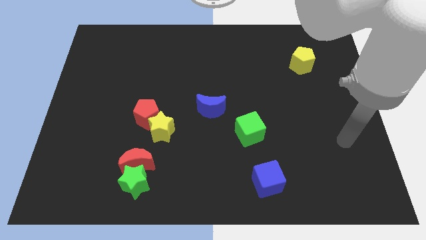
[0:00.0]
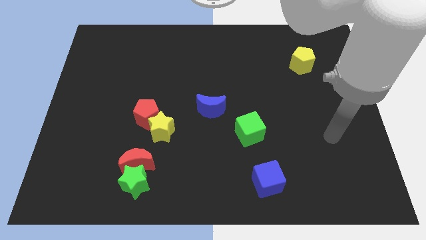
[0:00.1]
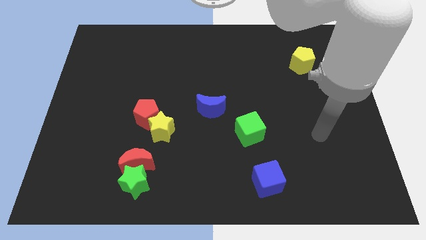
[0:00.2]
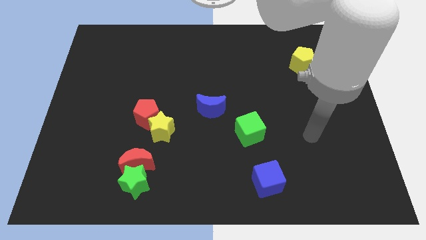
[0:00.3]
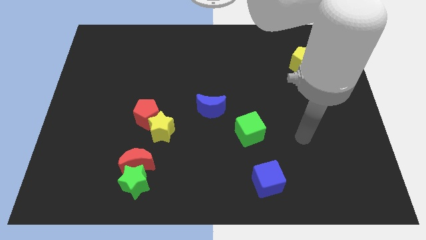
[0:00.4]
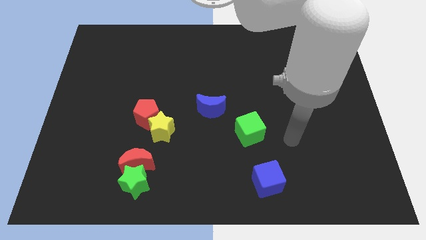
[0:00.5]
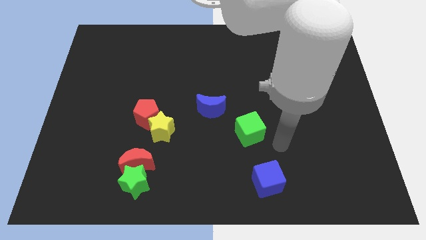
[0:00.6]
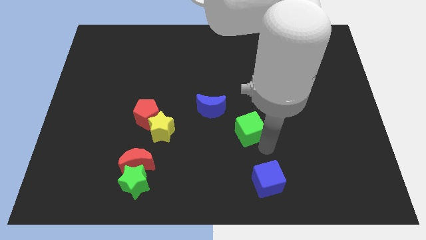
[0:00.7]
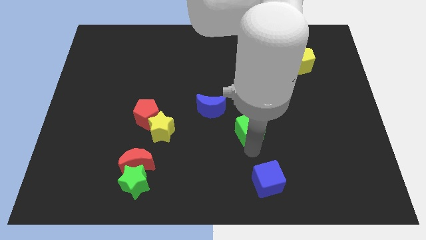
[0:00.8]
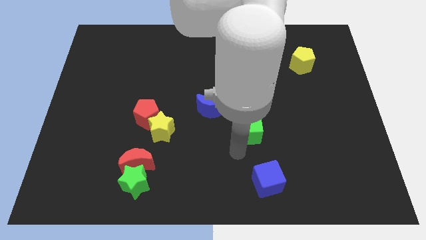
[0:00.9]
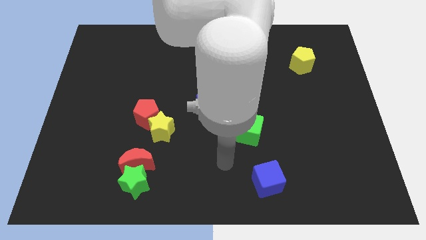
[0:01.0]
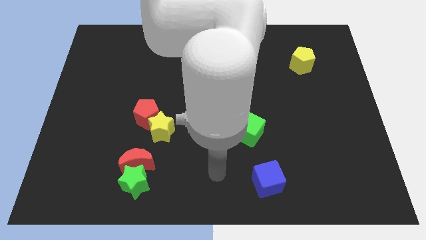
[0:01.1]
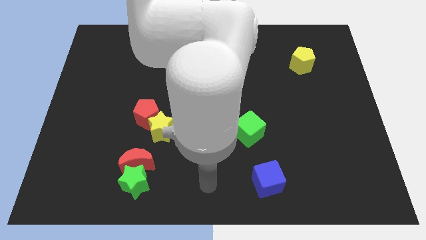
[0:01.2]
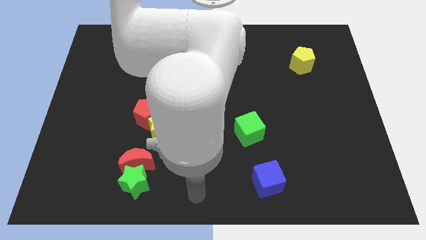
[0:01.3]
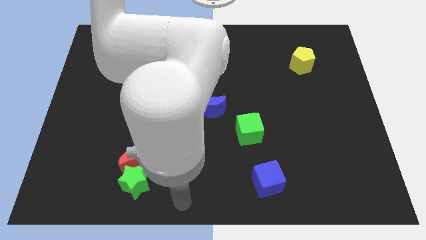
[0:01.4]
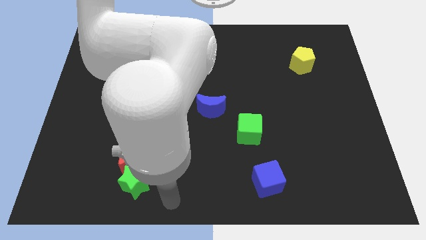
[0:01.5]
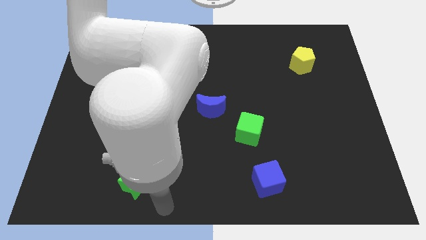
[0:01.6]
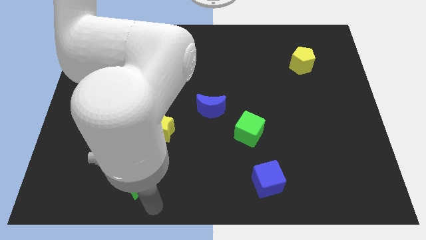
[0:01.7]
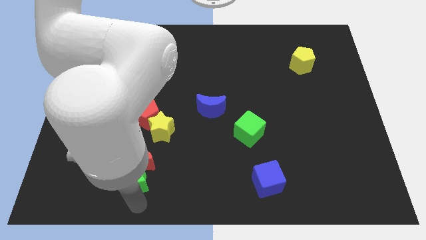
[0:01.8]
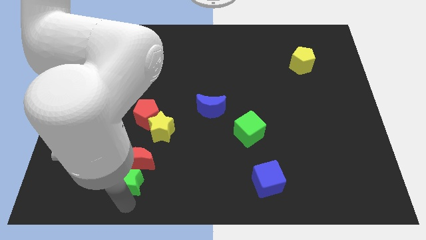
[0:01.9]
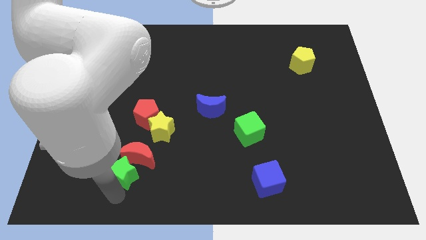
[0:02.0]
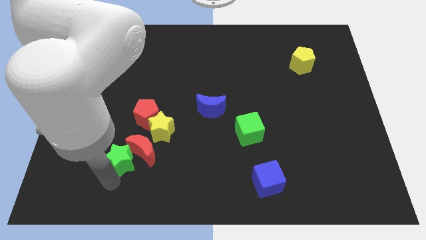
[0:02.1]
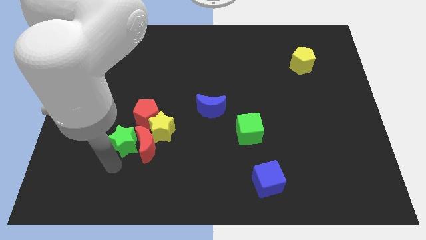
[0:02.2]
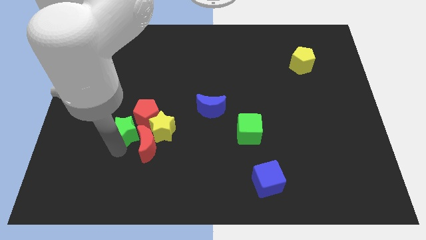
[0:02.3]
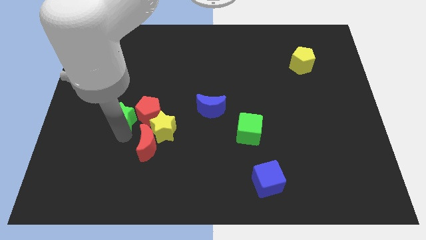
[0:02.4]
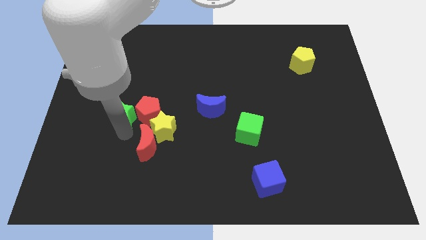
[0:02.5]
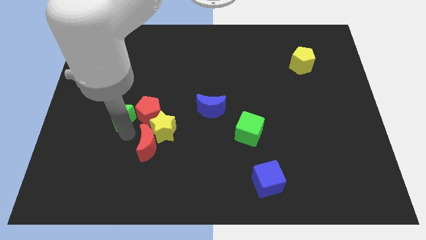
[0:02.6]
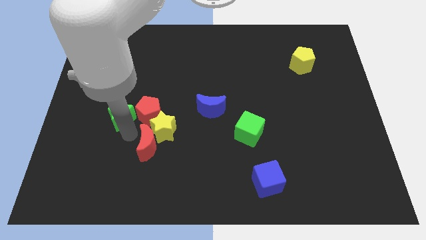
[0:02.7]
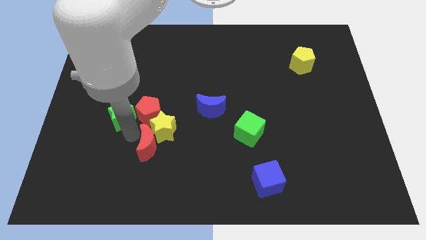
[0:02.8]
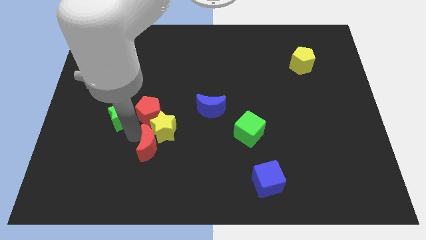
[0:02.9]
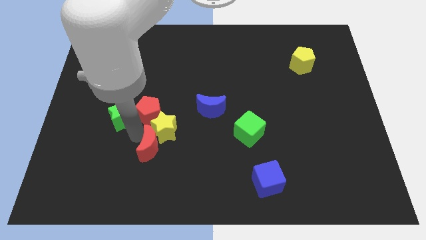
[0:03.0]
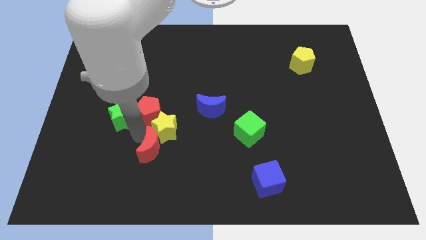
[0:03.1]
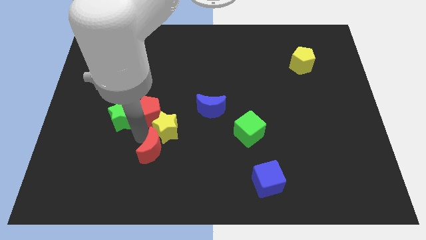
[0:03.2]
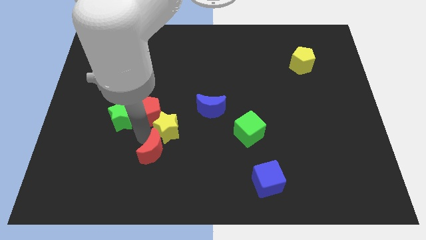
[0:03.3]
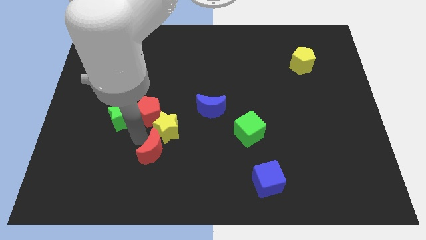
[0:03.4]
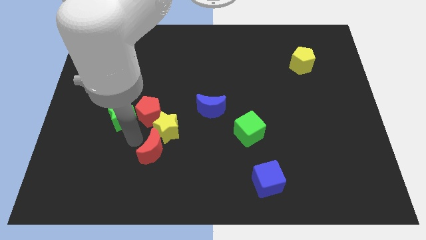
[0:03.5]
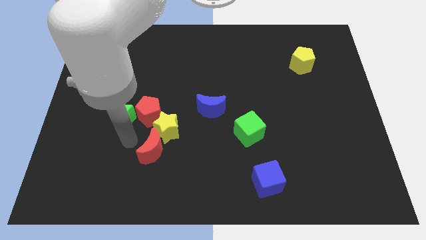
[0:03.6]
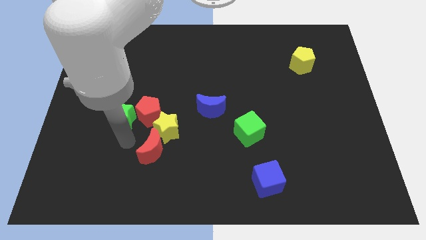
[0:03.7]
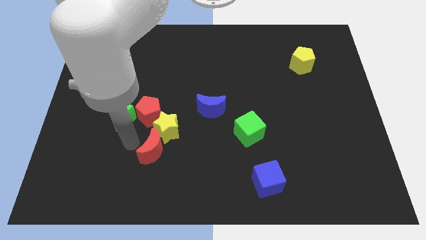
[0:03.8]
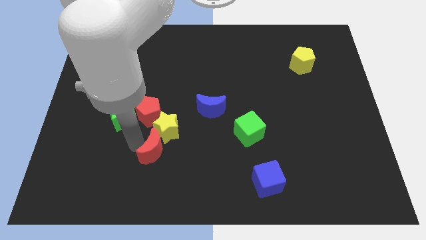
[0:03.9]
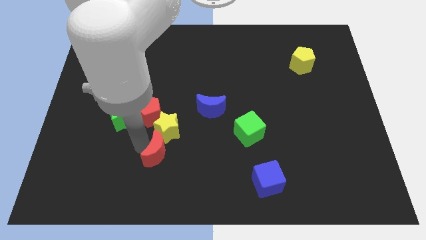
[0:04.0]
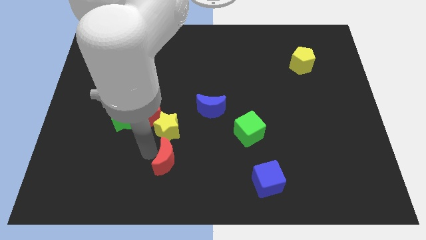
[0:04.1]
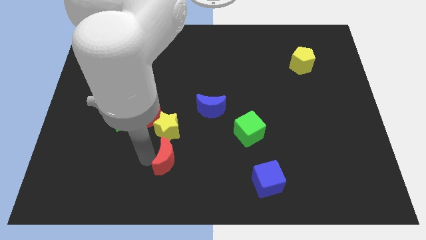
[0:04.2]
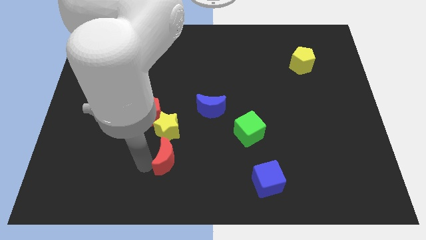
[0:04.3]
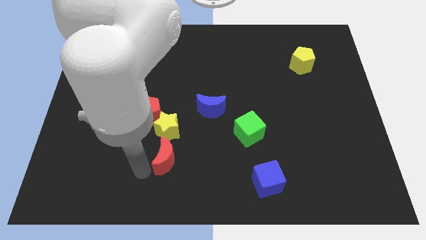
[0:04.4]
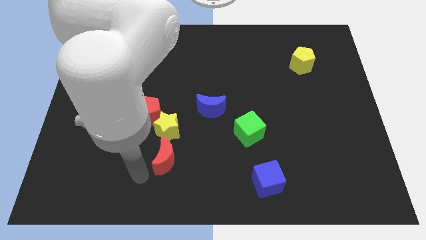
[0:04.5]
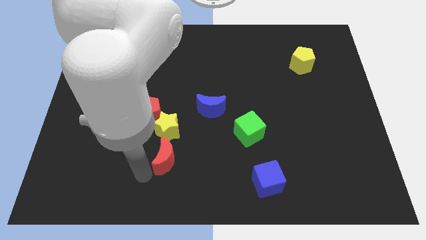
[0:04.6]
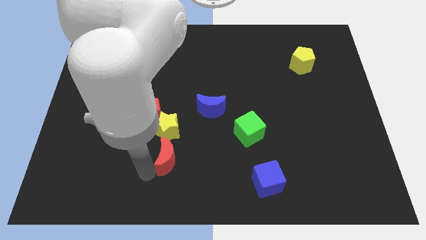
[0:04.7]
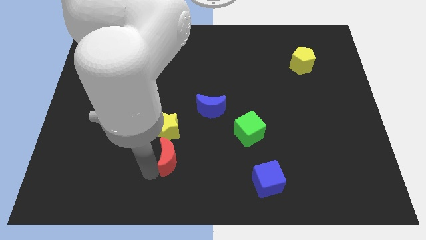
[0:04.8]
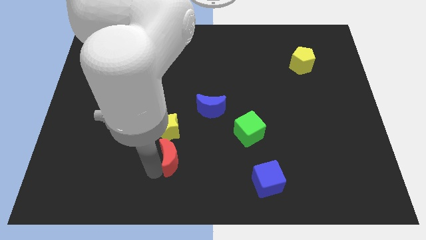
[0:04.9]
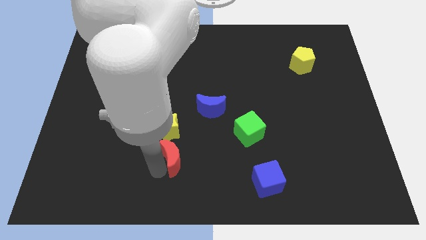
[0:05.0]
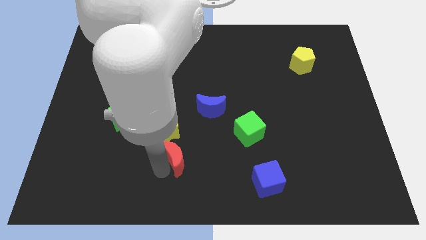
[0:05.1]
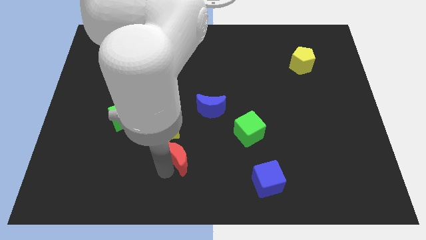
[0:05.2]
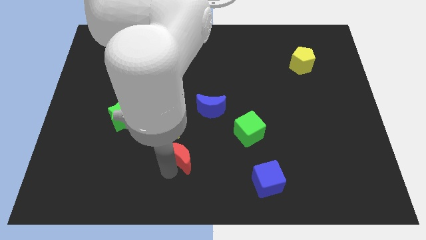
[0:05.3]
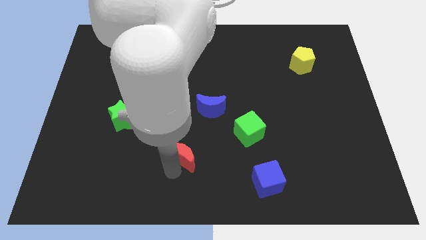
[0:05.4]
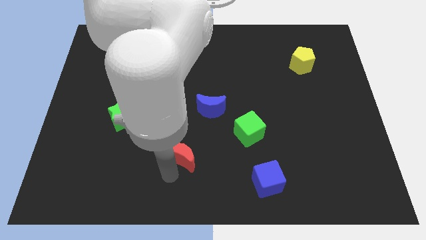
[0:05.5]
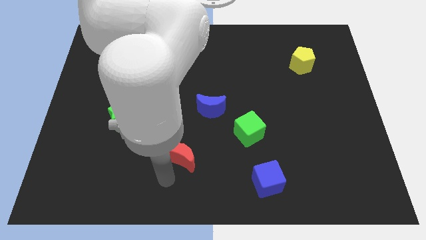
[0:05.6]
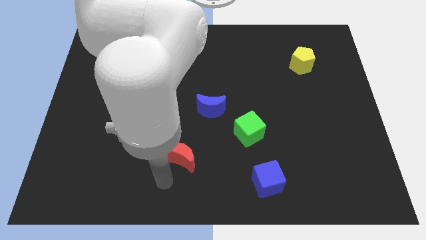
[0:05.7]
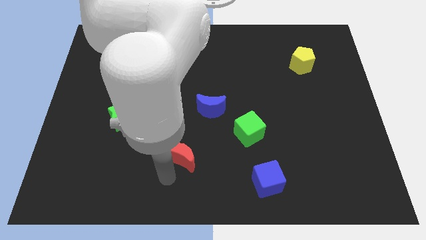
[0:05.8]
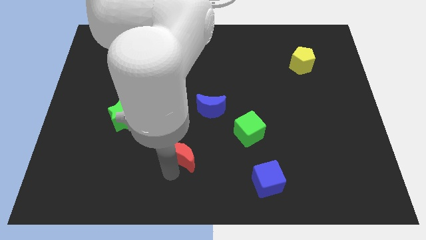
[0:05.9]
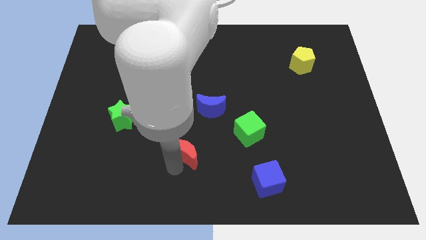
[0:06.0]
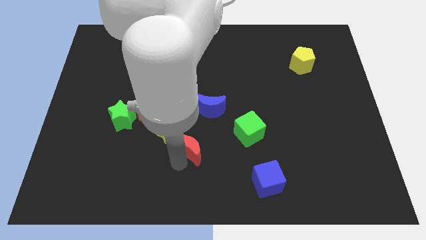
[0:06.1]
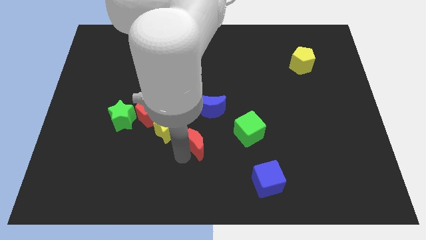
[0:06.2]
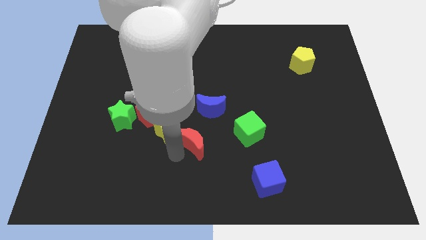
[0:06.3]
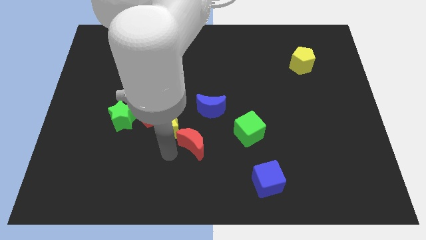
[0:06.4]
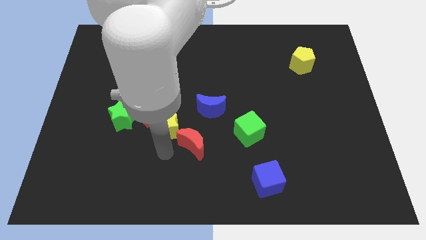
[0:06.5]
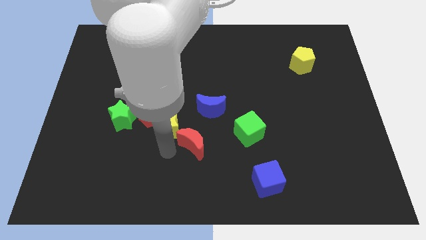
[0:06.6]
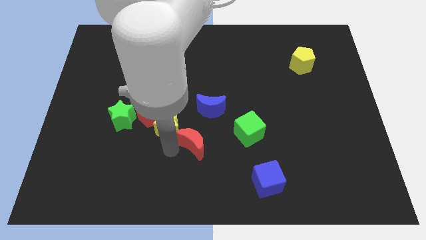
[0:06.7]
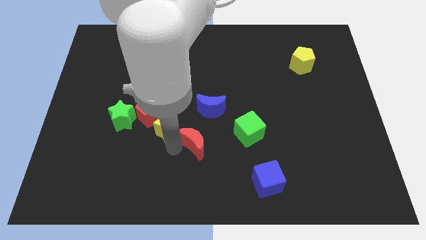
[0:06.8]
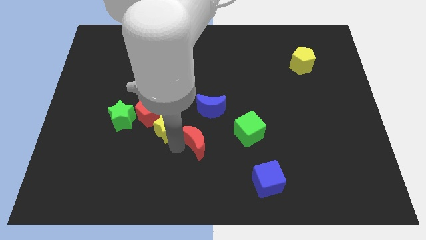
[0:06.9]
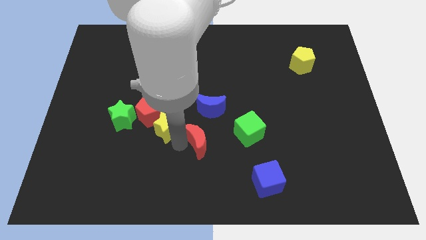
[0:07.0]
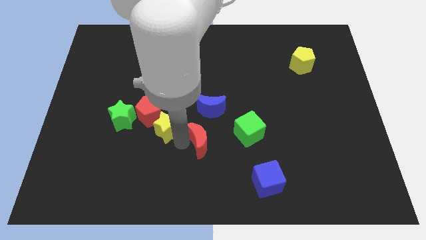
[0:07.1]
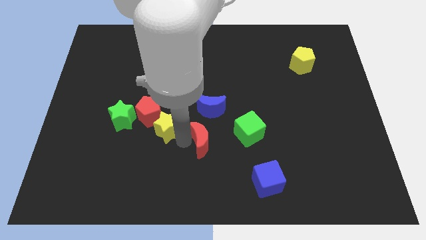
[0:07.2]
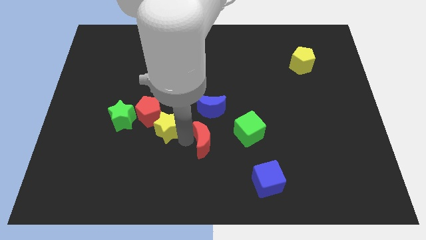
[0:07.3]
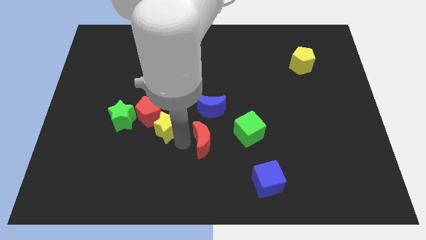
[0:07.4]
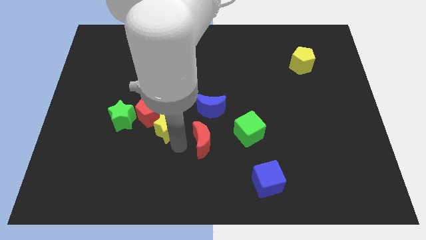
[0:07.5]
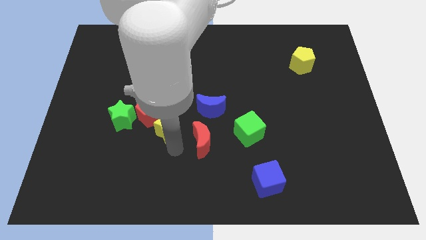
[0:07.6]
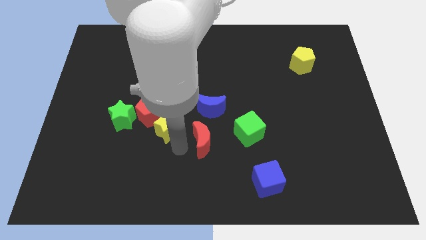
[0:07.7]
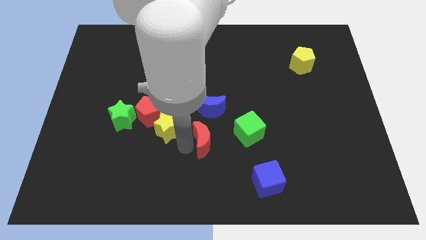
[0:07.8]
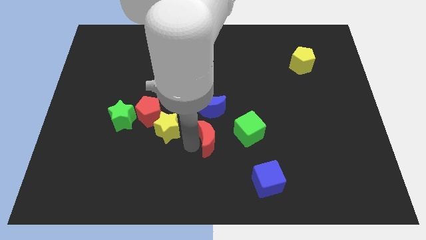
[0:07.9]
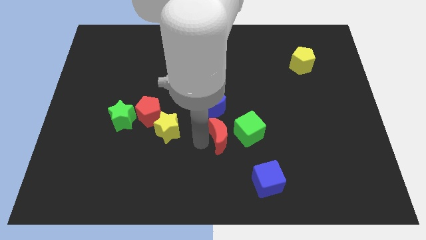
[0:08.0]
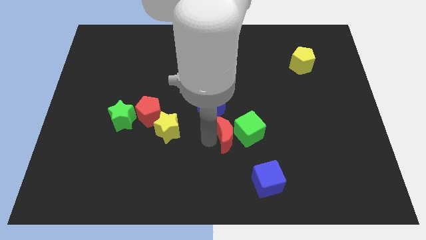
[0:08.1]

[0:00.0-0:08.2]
move the red moon towards the green cube
